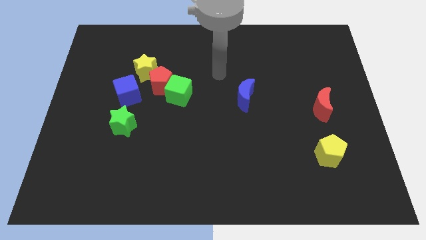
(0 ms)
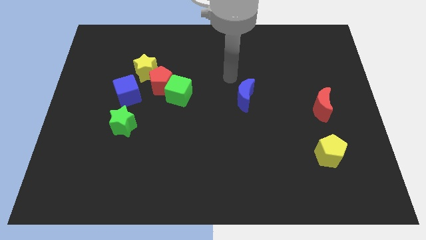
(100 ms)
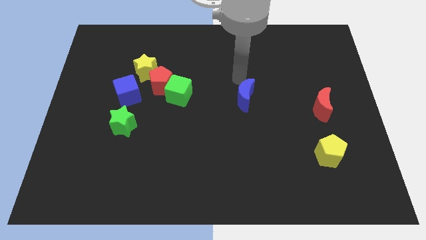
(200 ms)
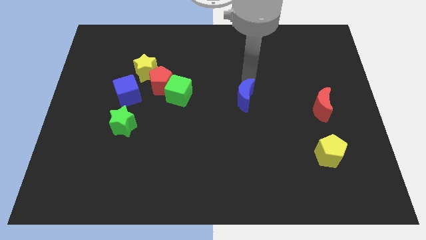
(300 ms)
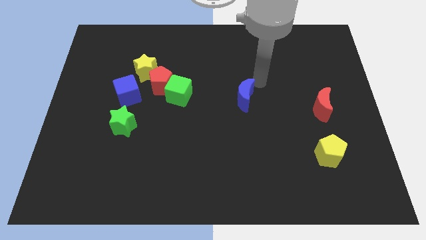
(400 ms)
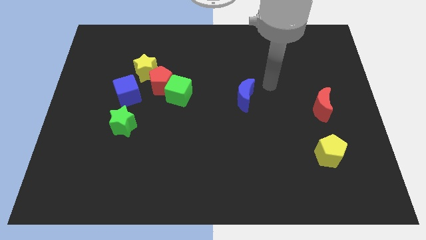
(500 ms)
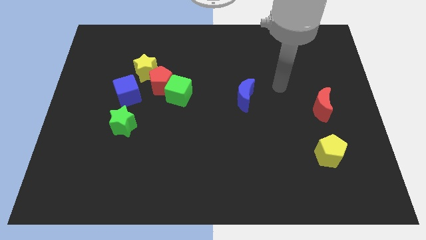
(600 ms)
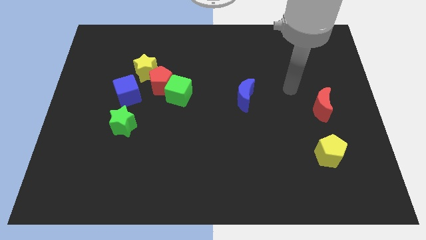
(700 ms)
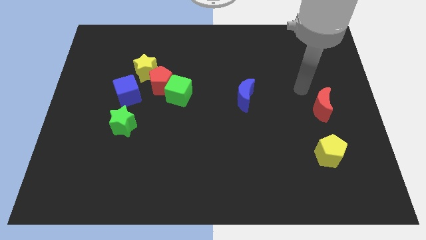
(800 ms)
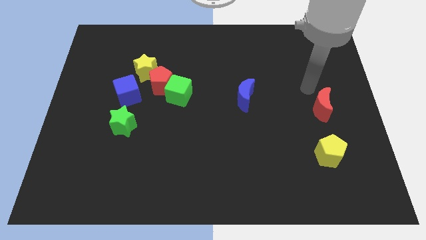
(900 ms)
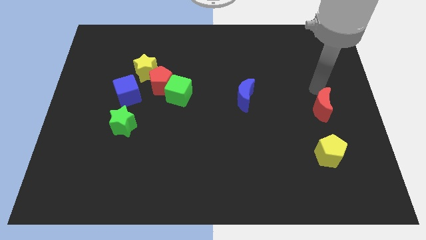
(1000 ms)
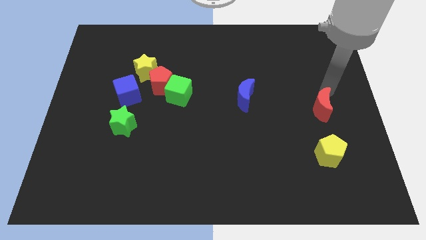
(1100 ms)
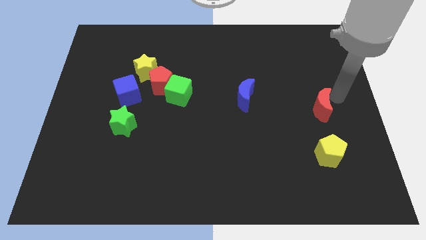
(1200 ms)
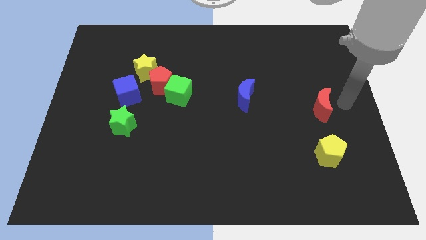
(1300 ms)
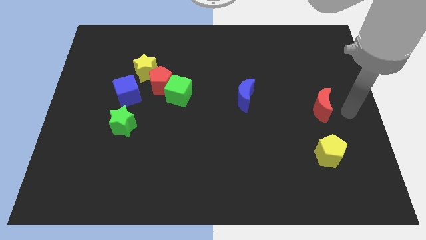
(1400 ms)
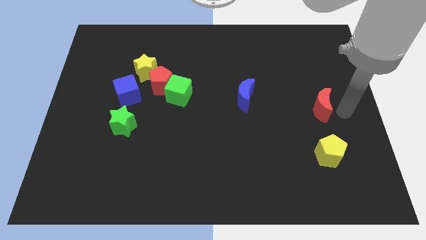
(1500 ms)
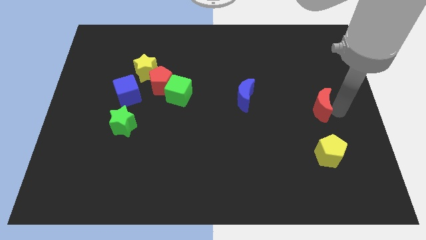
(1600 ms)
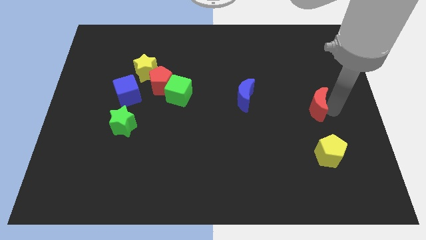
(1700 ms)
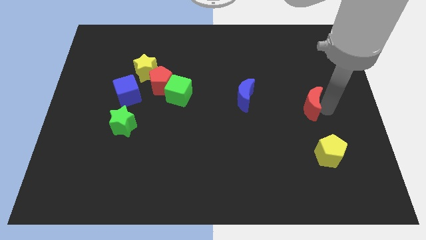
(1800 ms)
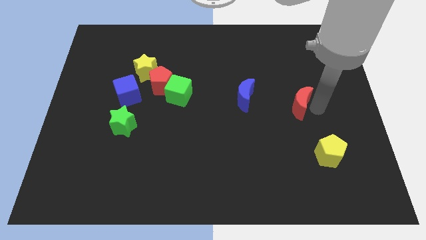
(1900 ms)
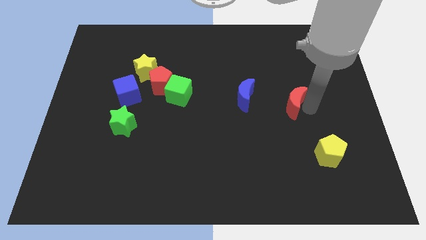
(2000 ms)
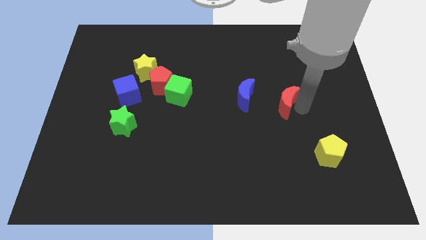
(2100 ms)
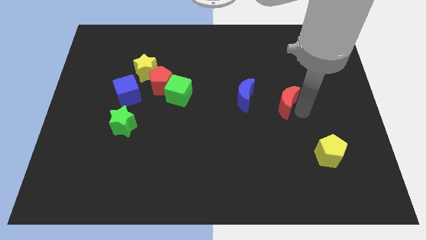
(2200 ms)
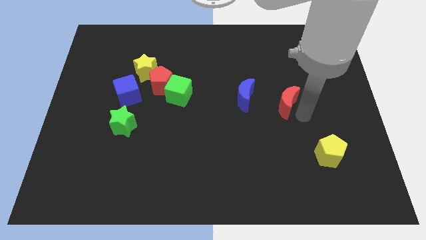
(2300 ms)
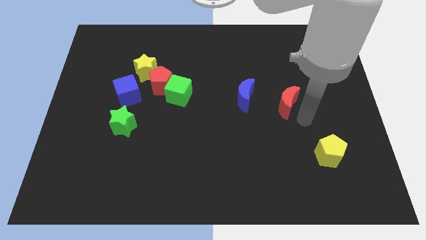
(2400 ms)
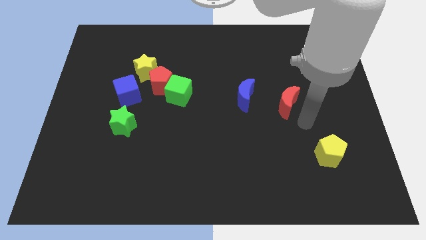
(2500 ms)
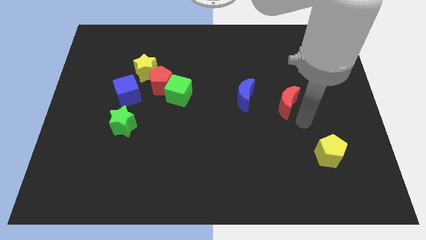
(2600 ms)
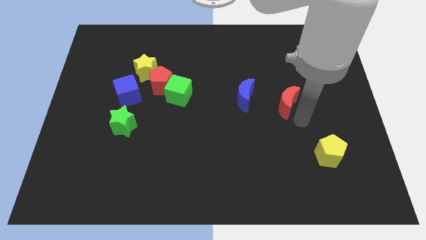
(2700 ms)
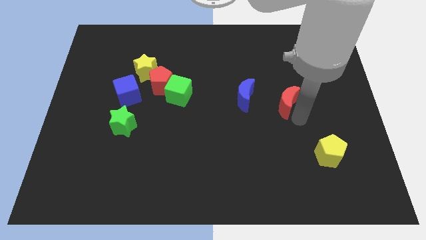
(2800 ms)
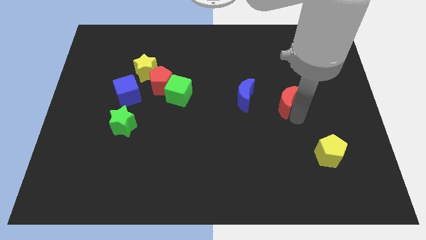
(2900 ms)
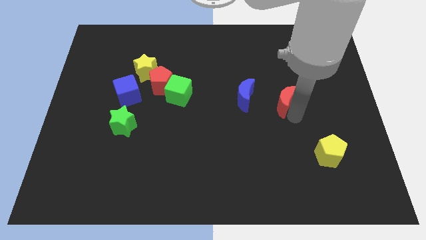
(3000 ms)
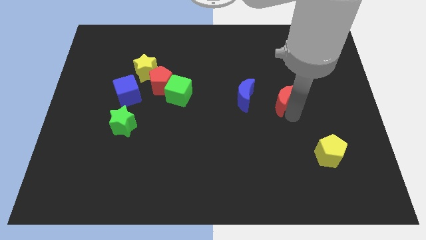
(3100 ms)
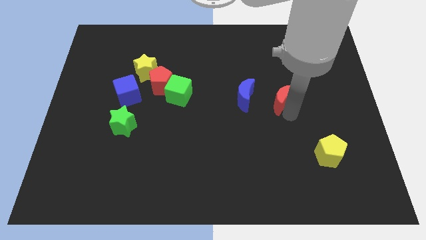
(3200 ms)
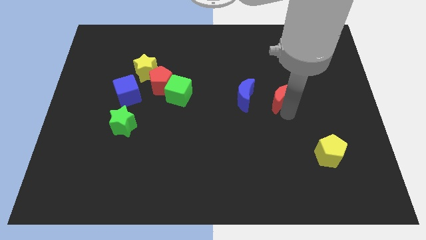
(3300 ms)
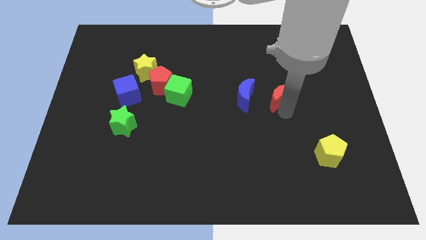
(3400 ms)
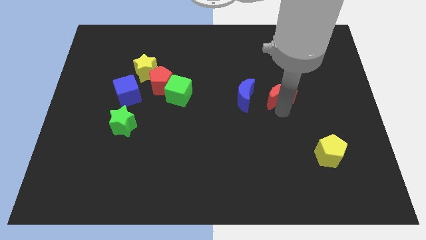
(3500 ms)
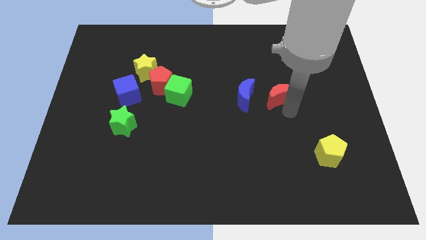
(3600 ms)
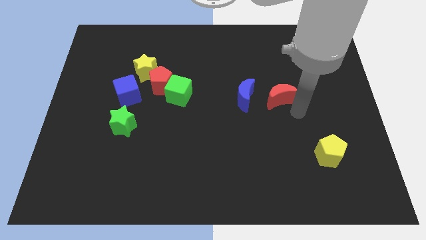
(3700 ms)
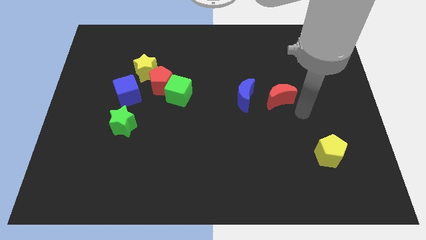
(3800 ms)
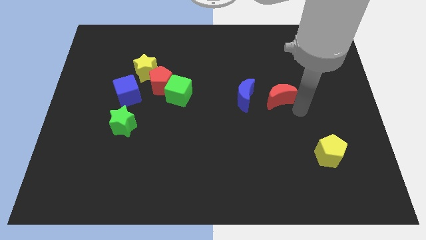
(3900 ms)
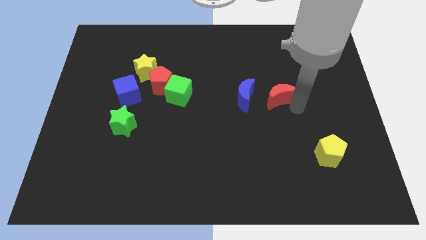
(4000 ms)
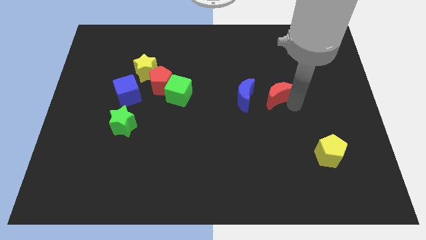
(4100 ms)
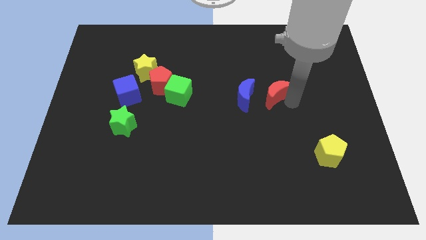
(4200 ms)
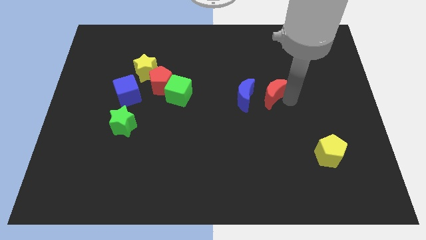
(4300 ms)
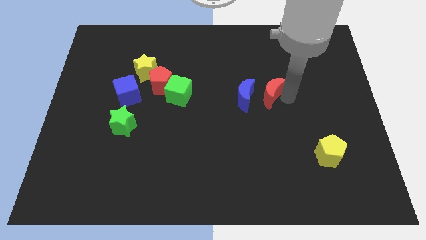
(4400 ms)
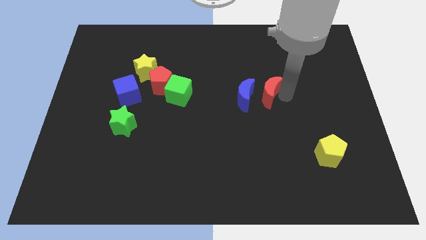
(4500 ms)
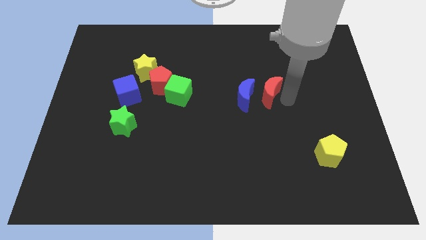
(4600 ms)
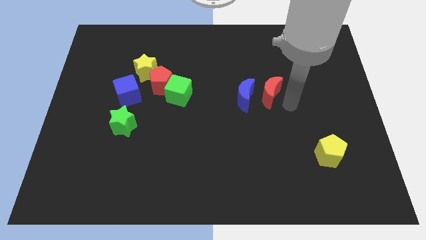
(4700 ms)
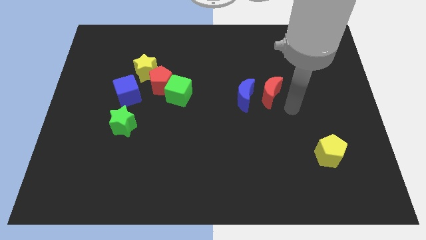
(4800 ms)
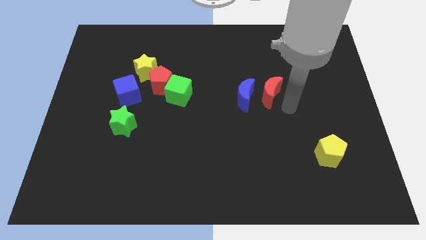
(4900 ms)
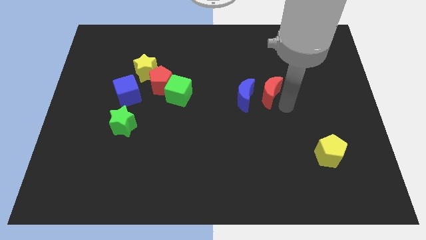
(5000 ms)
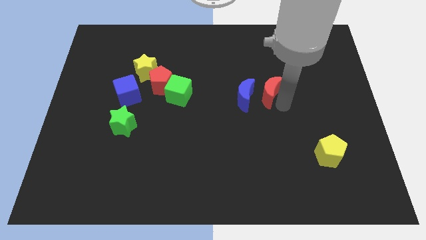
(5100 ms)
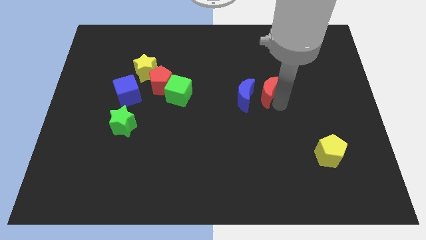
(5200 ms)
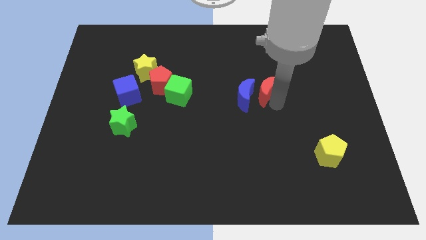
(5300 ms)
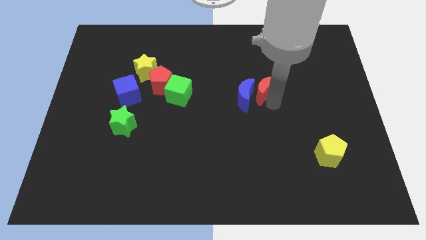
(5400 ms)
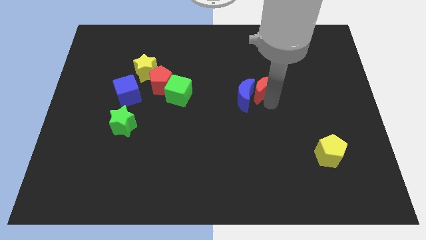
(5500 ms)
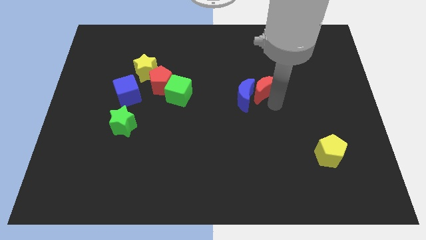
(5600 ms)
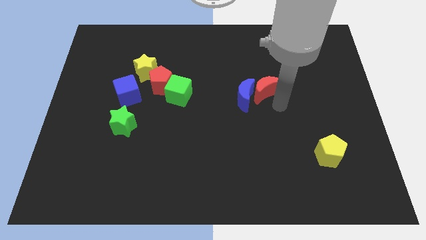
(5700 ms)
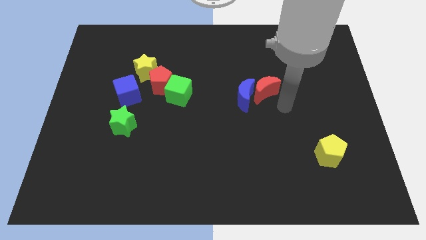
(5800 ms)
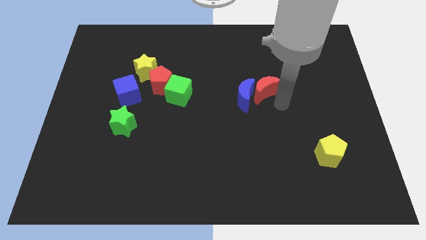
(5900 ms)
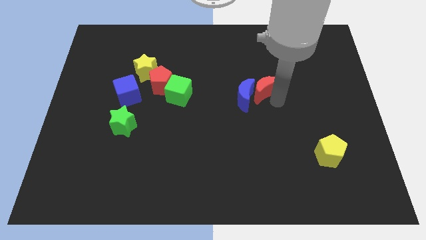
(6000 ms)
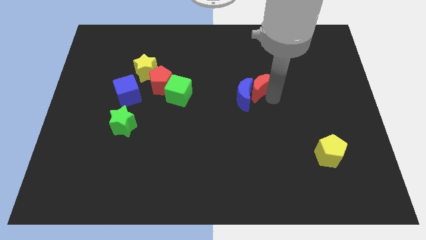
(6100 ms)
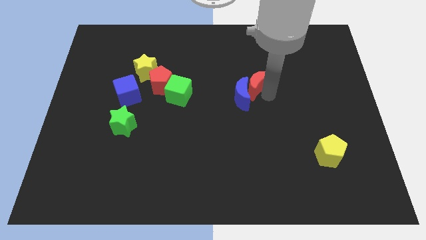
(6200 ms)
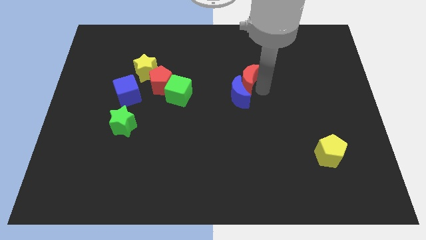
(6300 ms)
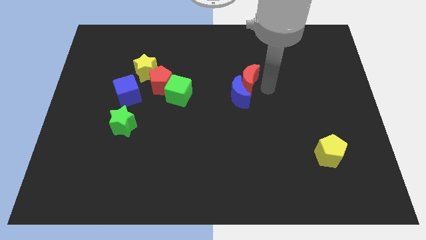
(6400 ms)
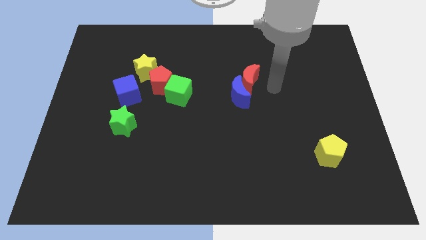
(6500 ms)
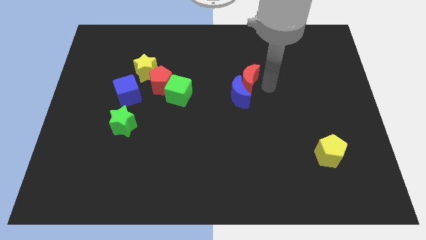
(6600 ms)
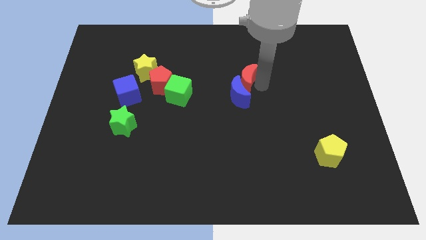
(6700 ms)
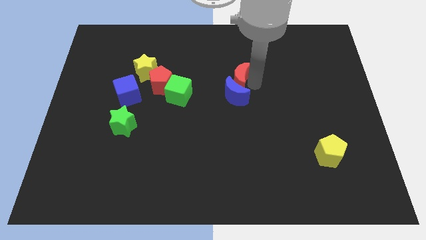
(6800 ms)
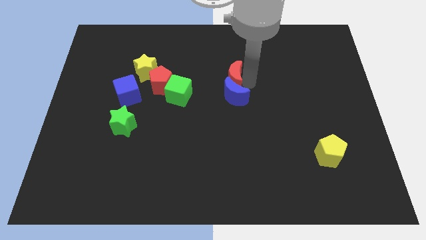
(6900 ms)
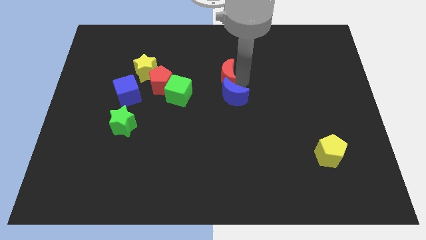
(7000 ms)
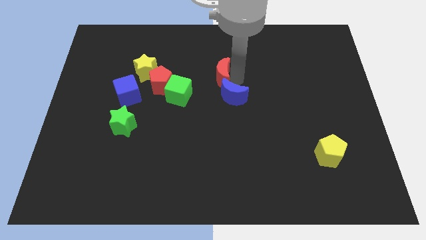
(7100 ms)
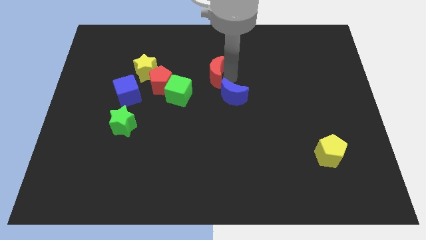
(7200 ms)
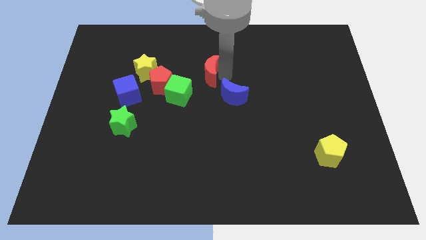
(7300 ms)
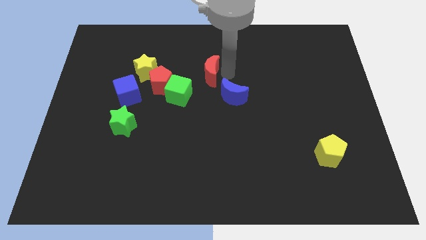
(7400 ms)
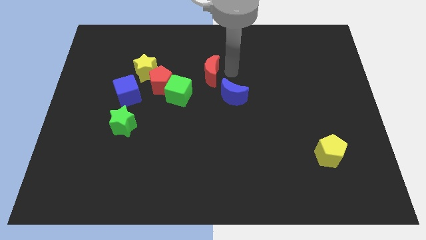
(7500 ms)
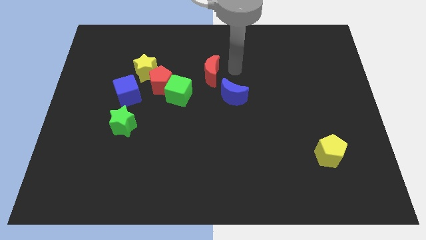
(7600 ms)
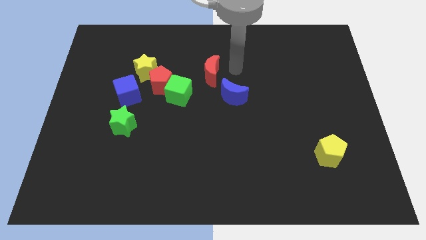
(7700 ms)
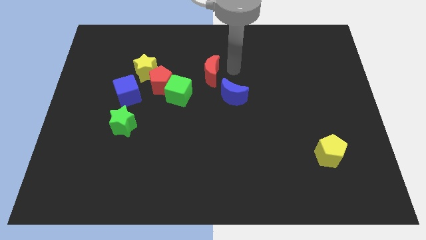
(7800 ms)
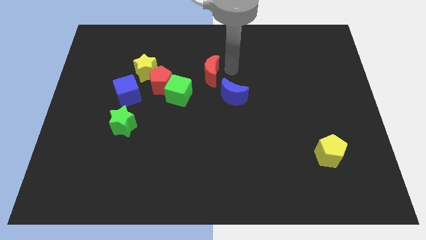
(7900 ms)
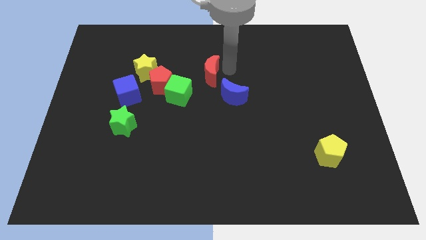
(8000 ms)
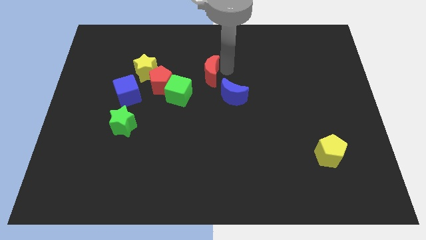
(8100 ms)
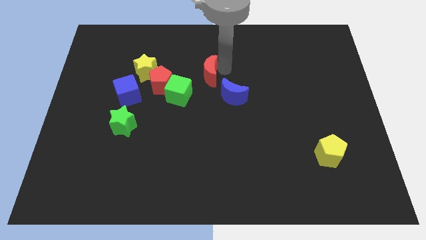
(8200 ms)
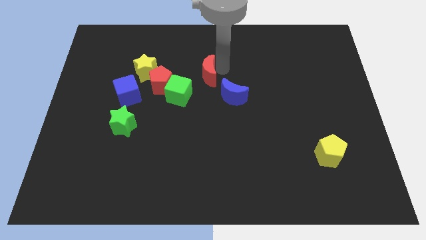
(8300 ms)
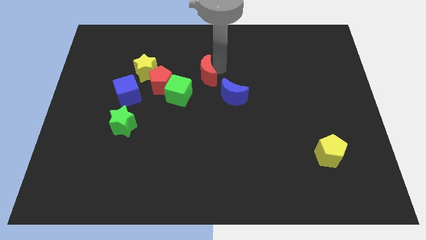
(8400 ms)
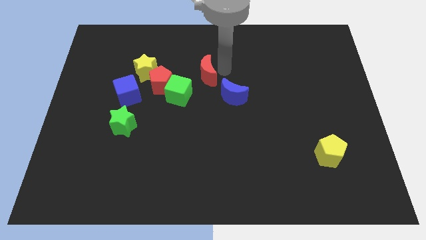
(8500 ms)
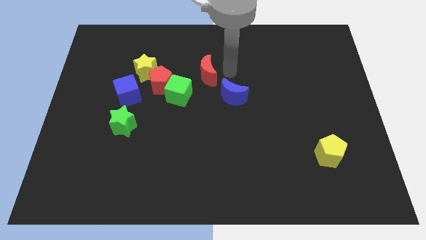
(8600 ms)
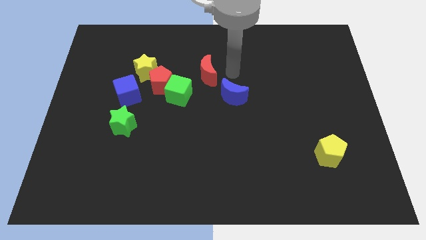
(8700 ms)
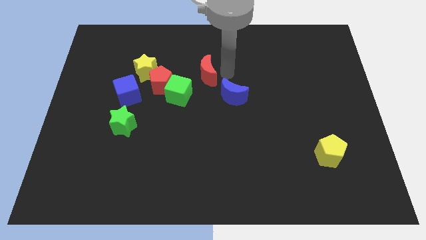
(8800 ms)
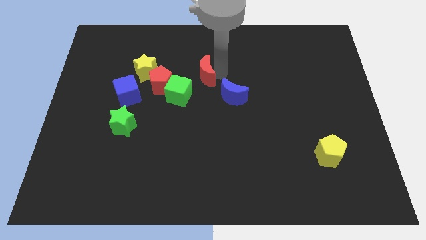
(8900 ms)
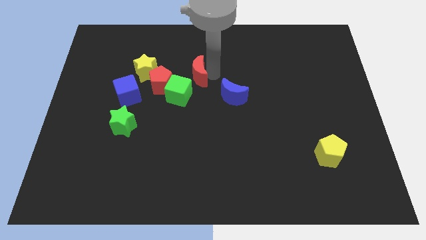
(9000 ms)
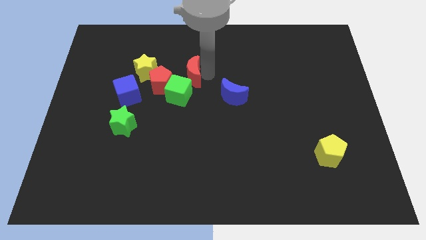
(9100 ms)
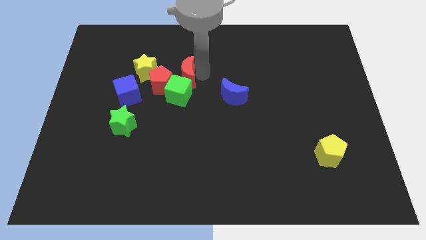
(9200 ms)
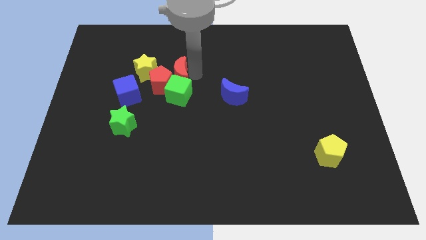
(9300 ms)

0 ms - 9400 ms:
put the red moon towards the red pentagon
